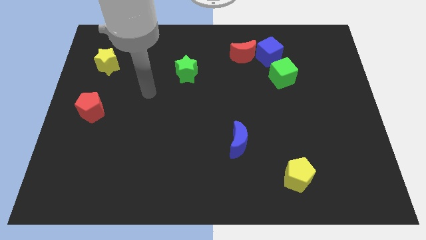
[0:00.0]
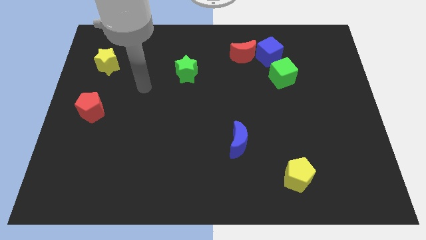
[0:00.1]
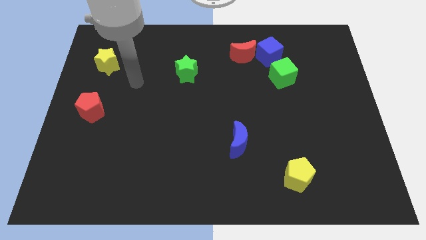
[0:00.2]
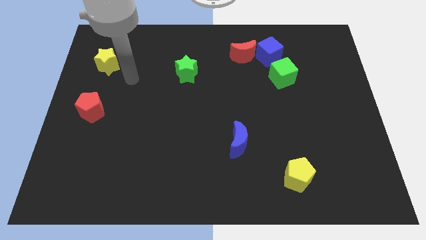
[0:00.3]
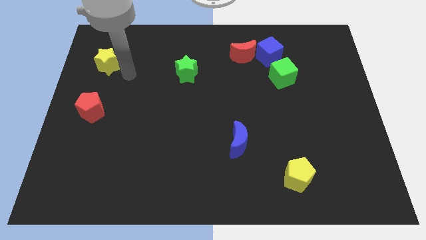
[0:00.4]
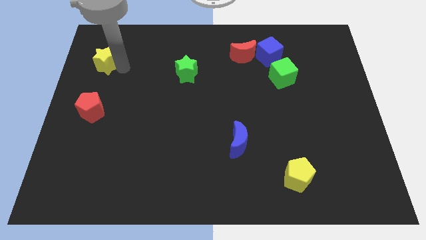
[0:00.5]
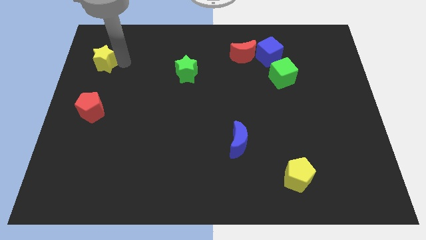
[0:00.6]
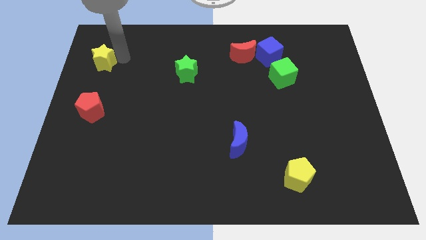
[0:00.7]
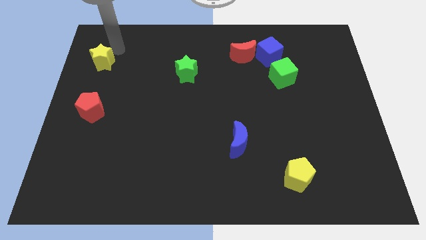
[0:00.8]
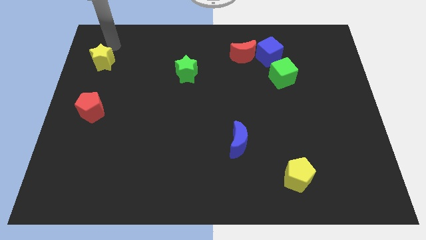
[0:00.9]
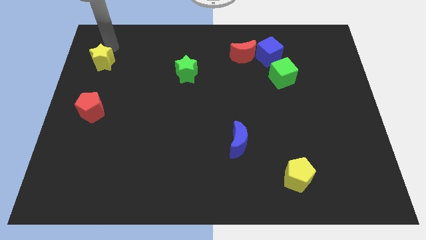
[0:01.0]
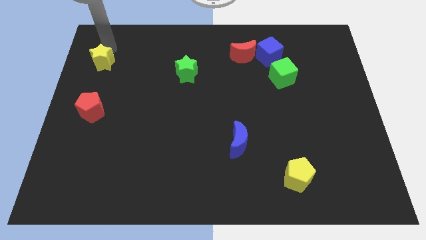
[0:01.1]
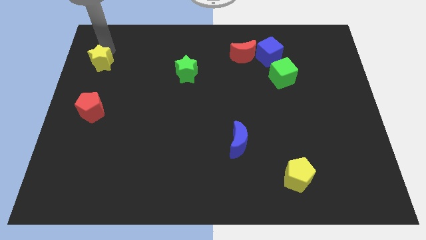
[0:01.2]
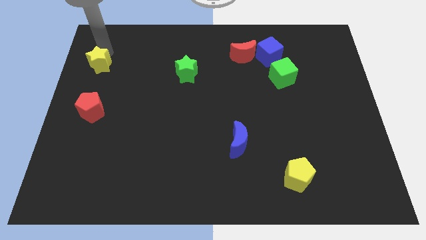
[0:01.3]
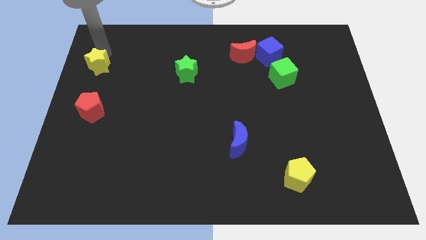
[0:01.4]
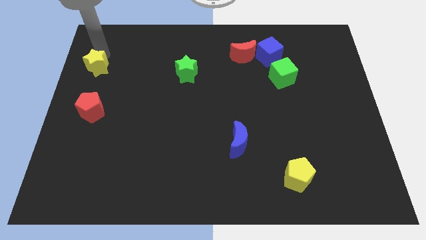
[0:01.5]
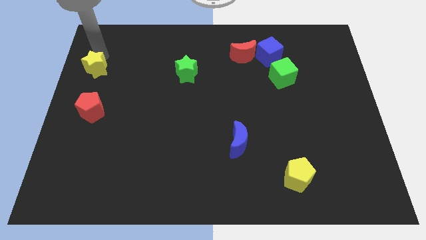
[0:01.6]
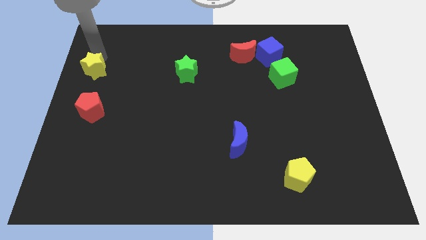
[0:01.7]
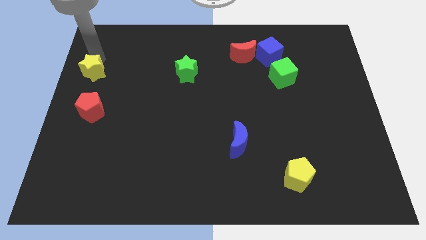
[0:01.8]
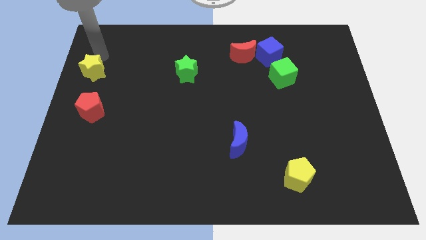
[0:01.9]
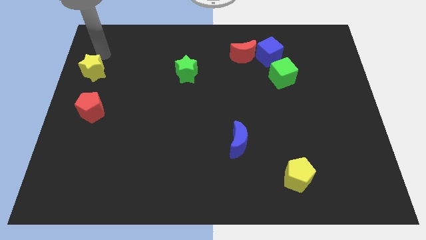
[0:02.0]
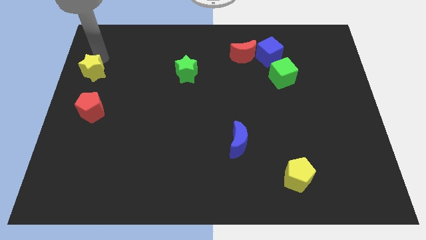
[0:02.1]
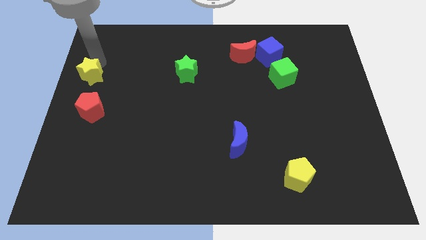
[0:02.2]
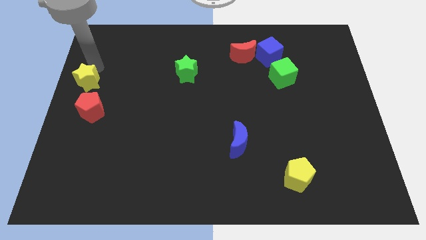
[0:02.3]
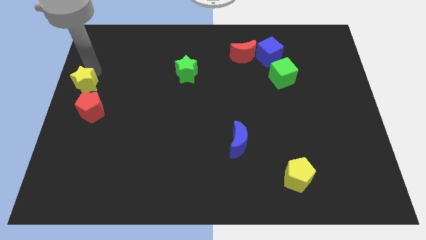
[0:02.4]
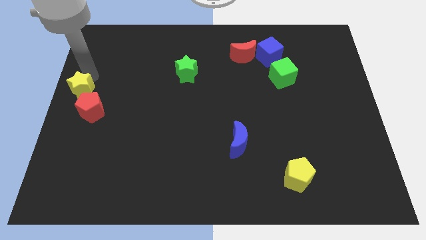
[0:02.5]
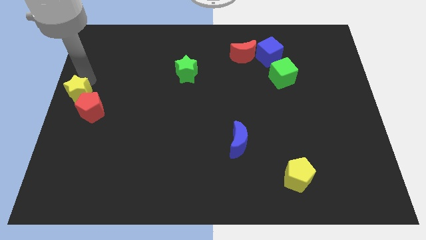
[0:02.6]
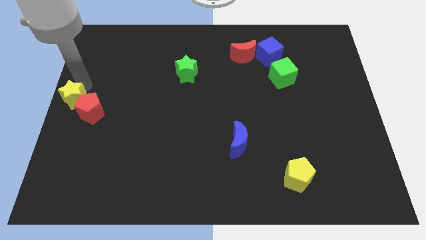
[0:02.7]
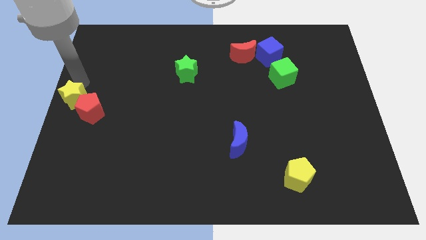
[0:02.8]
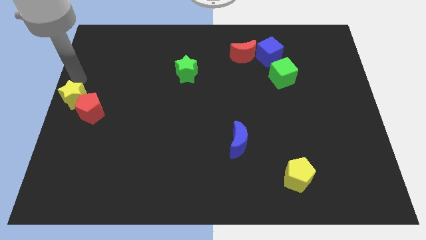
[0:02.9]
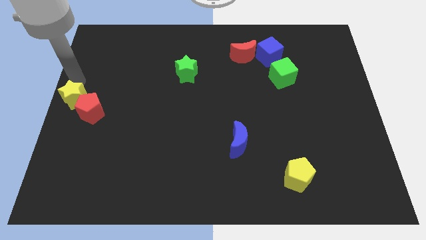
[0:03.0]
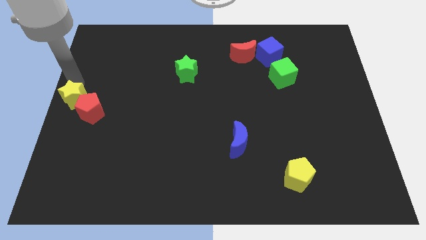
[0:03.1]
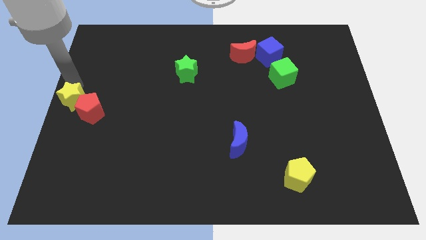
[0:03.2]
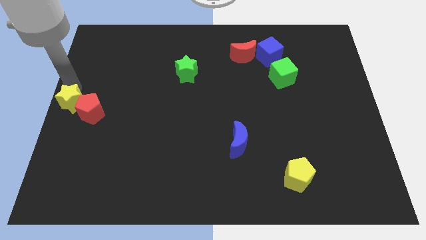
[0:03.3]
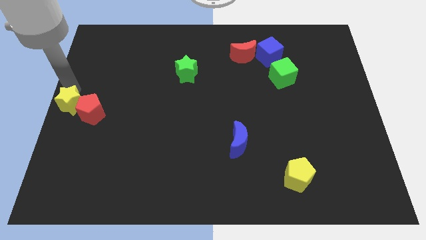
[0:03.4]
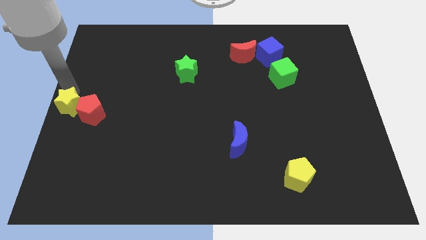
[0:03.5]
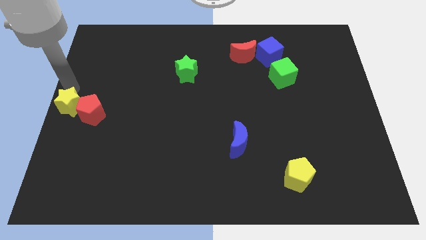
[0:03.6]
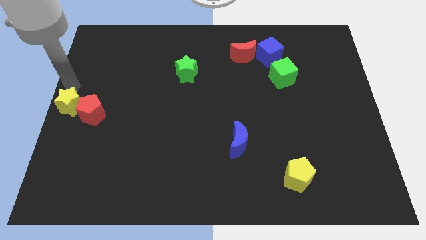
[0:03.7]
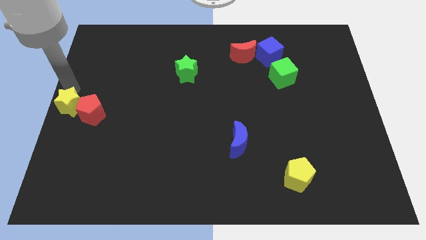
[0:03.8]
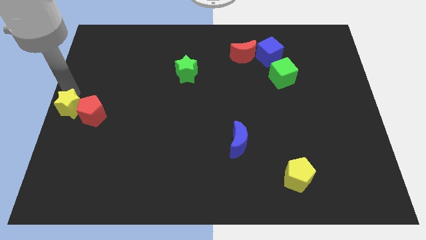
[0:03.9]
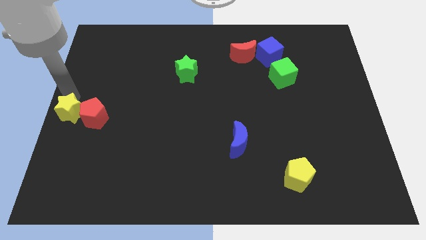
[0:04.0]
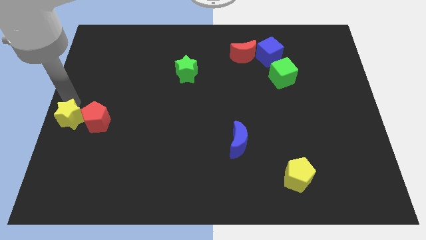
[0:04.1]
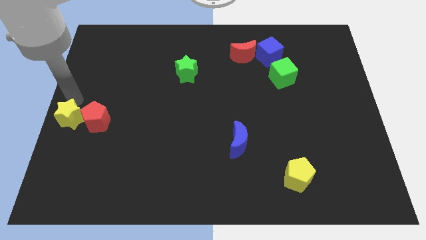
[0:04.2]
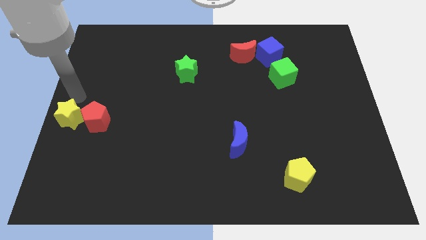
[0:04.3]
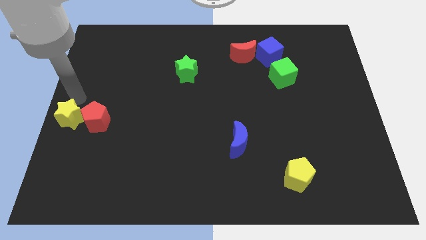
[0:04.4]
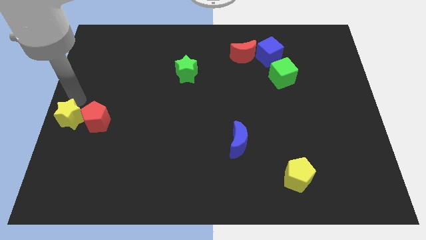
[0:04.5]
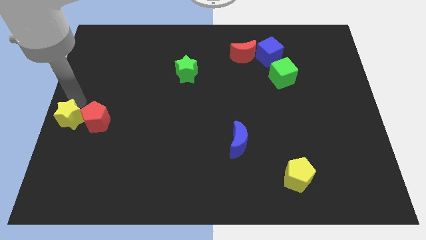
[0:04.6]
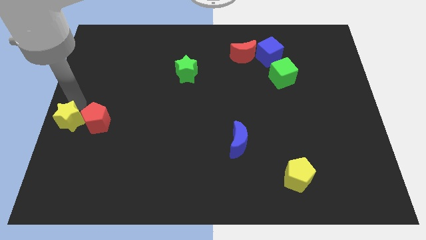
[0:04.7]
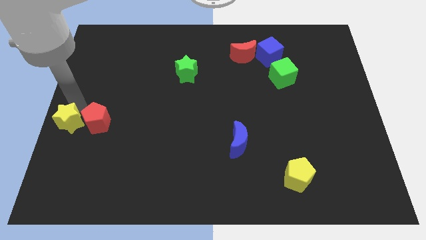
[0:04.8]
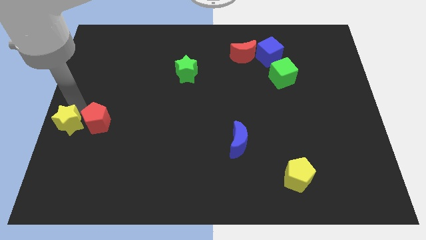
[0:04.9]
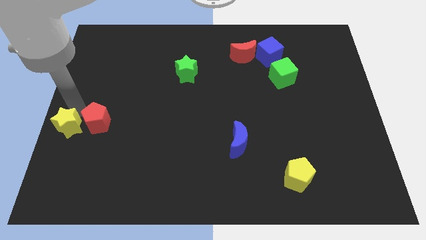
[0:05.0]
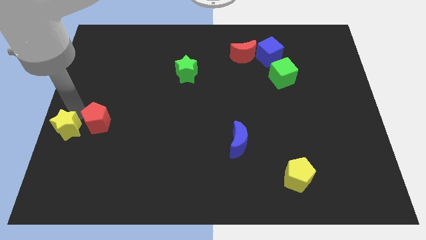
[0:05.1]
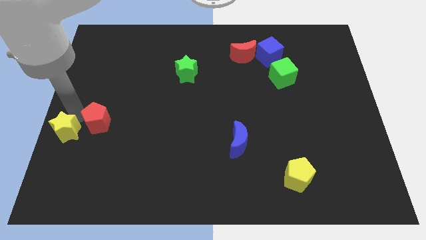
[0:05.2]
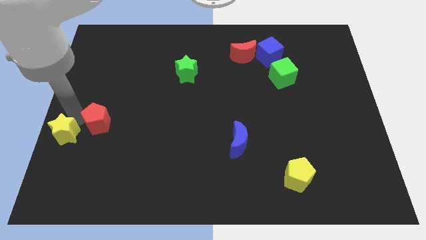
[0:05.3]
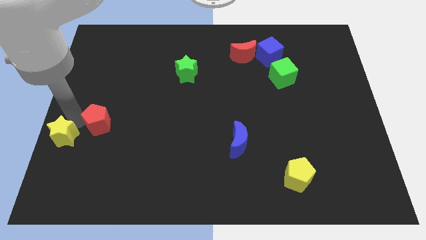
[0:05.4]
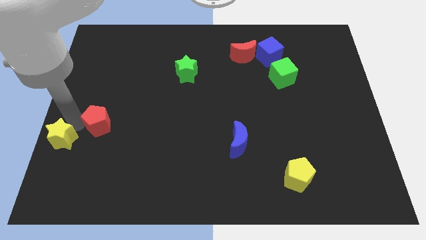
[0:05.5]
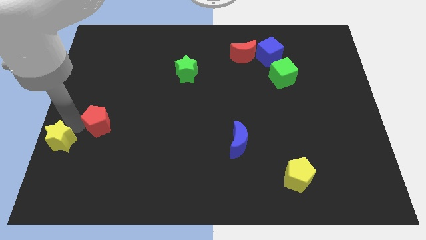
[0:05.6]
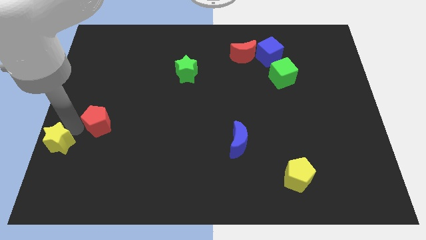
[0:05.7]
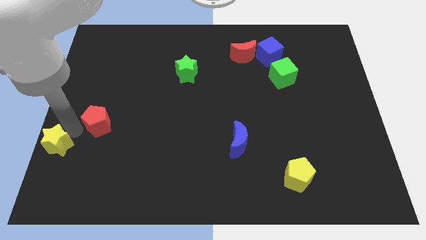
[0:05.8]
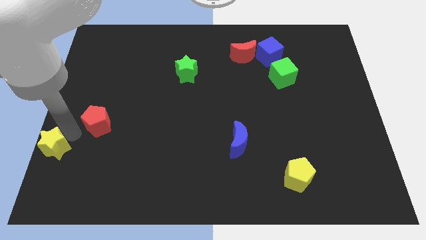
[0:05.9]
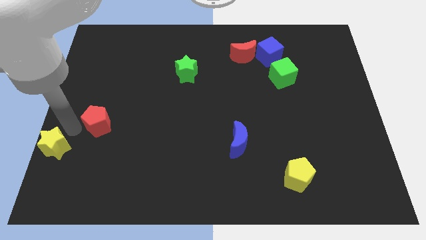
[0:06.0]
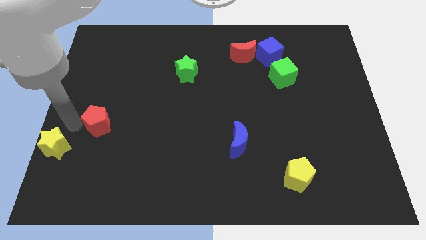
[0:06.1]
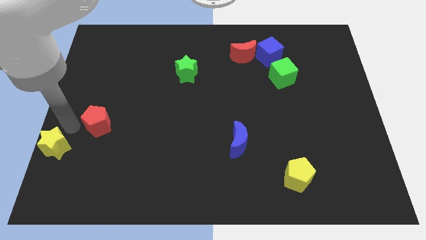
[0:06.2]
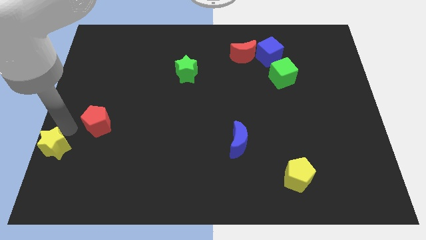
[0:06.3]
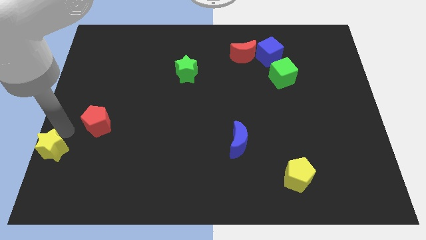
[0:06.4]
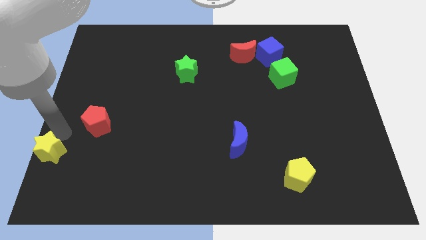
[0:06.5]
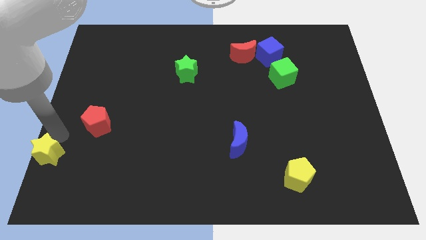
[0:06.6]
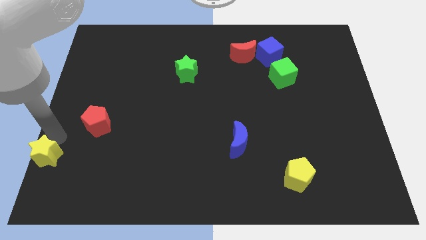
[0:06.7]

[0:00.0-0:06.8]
move the yellow star to the bottom left

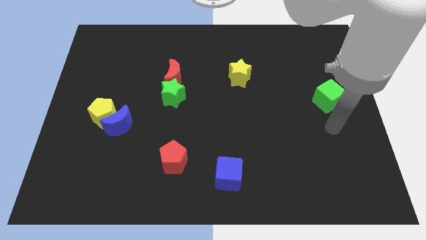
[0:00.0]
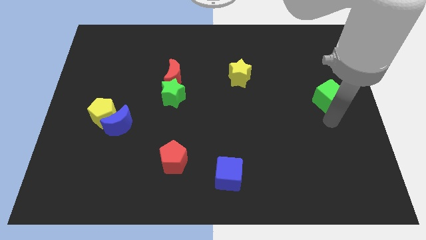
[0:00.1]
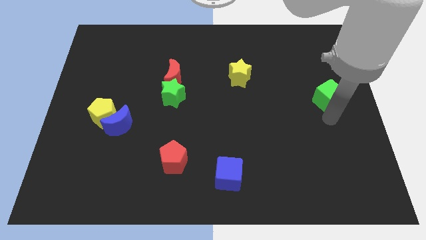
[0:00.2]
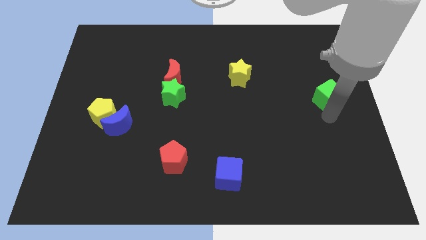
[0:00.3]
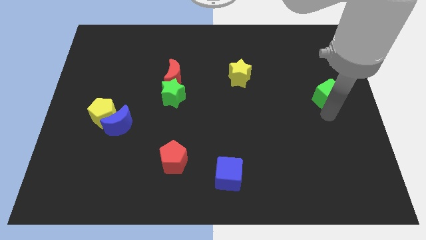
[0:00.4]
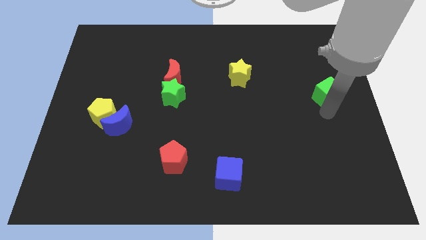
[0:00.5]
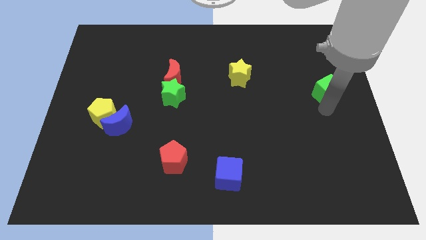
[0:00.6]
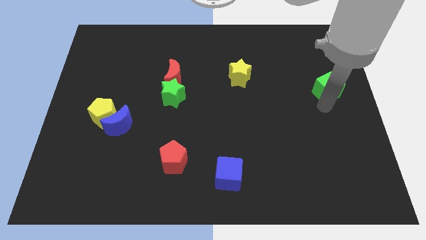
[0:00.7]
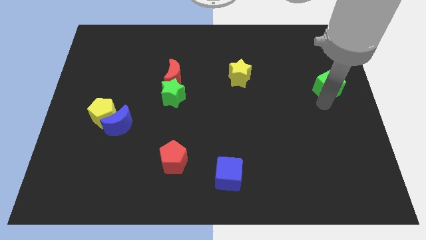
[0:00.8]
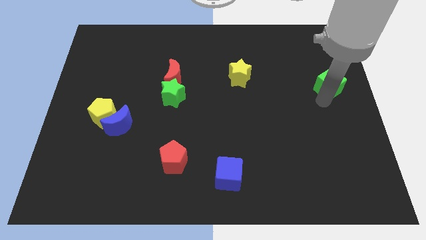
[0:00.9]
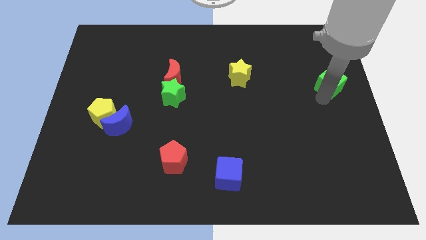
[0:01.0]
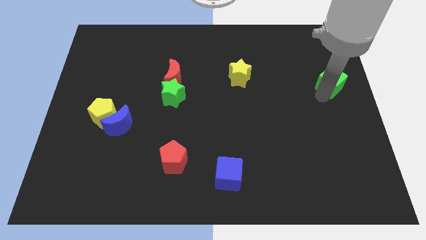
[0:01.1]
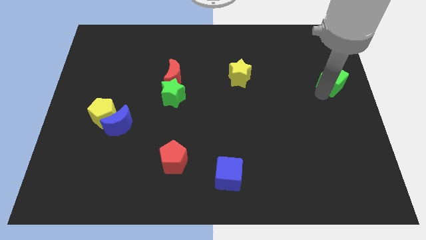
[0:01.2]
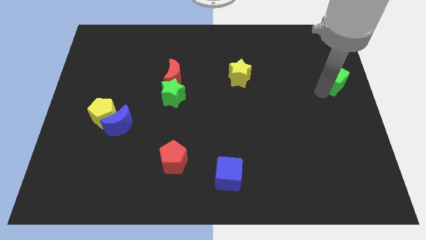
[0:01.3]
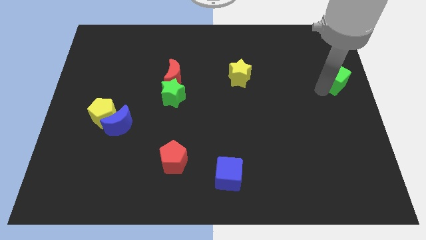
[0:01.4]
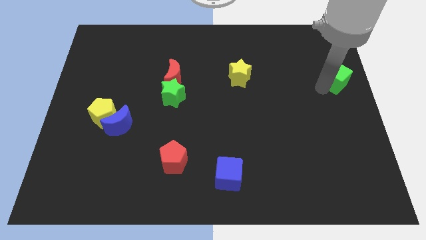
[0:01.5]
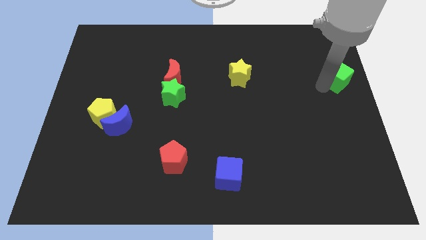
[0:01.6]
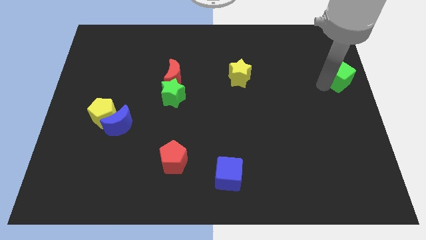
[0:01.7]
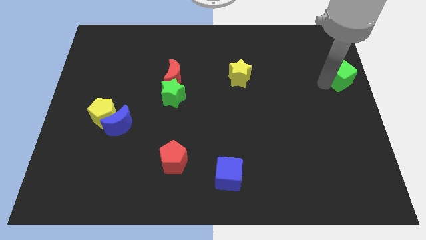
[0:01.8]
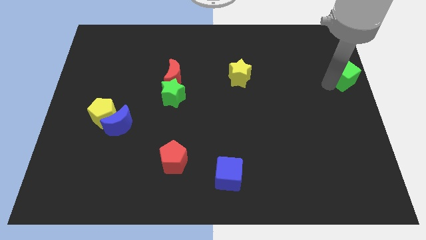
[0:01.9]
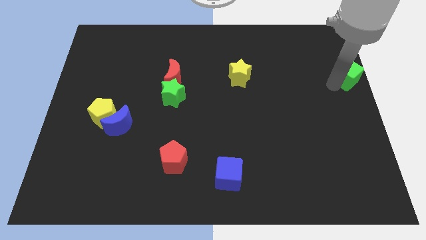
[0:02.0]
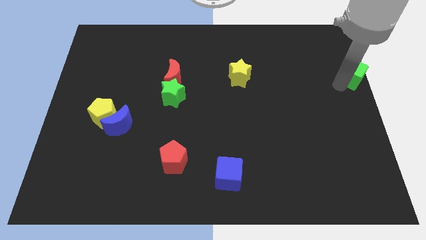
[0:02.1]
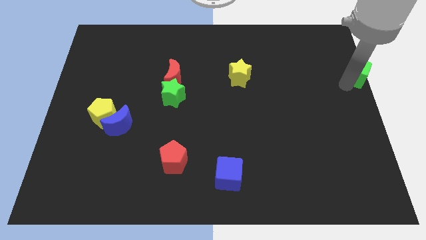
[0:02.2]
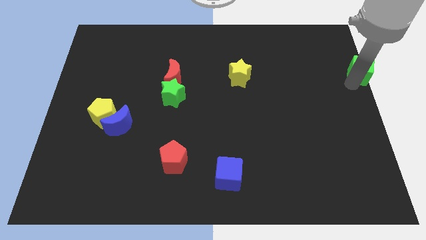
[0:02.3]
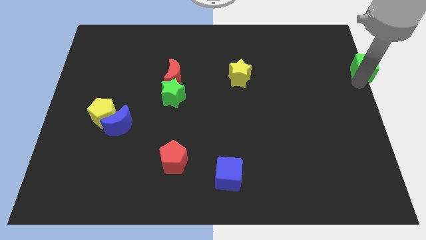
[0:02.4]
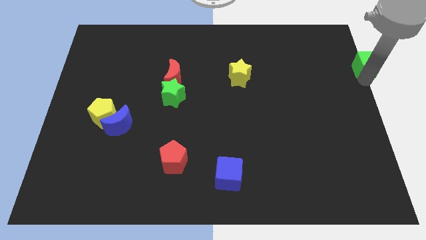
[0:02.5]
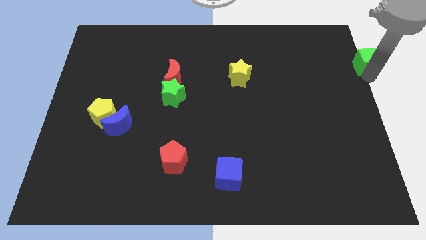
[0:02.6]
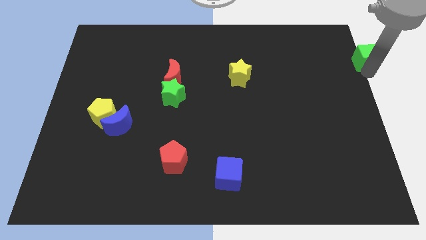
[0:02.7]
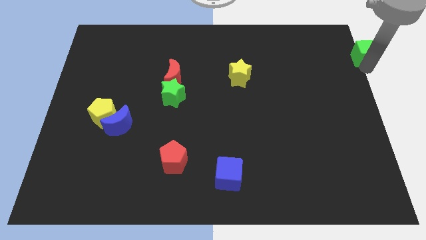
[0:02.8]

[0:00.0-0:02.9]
push the green cube to the top right of the board
